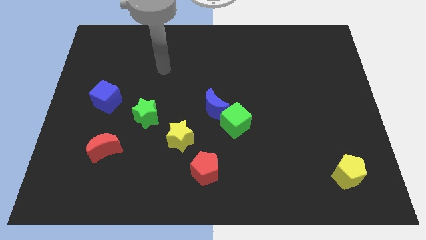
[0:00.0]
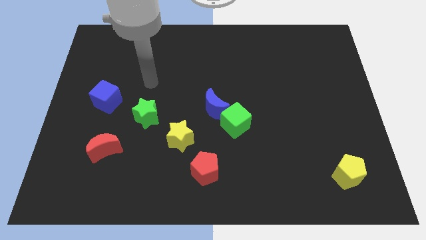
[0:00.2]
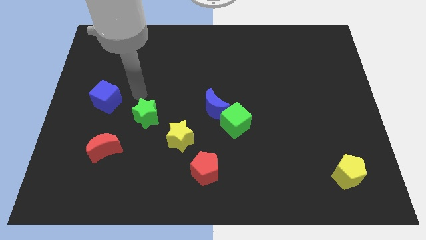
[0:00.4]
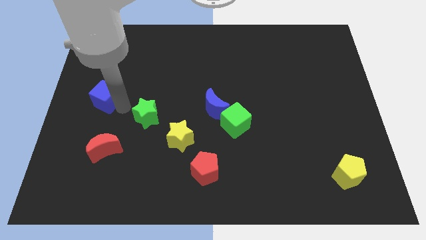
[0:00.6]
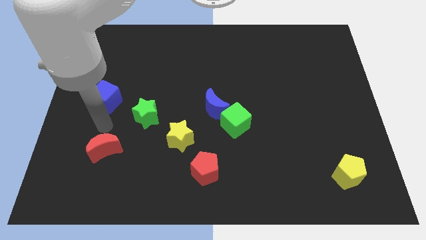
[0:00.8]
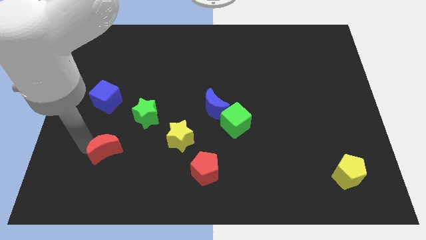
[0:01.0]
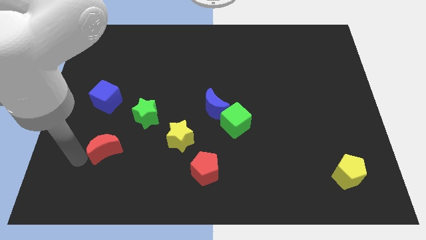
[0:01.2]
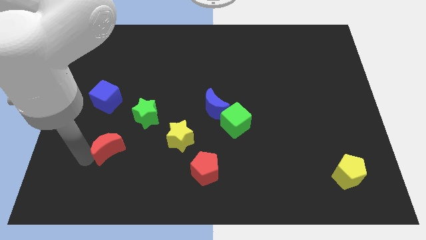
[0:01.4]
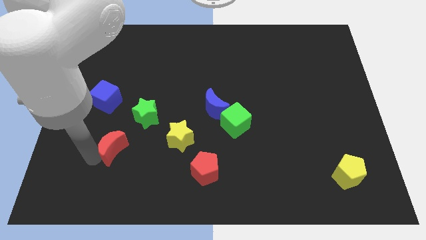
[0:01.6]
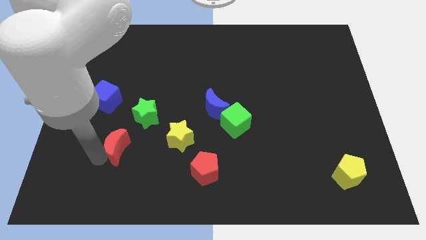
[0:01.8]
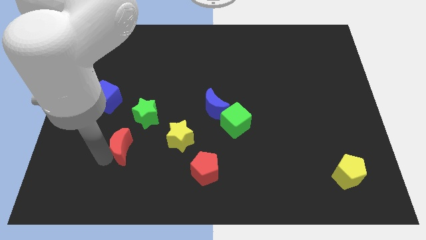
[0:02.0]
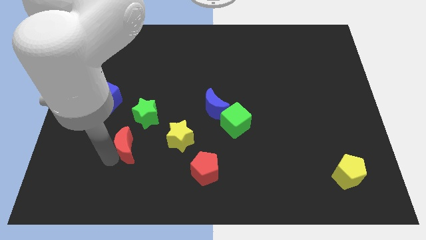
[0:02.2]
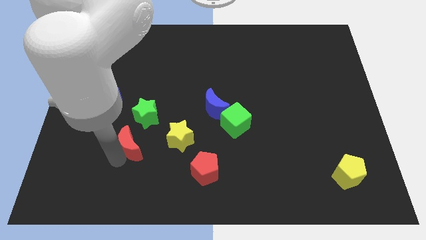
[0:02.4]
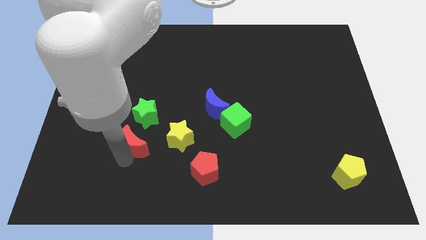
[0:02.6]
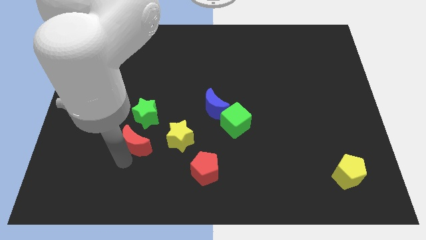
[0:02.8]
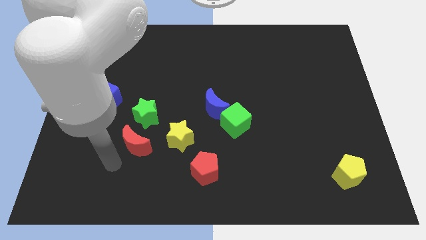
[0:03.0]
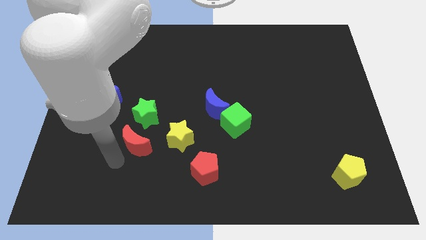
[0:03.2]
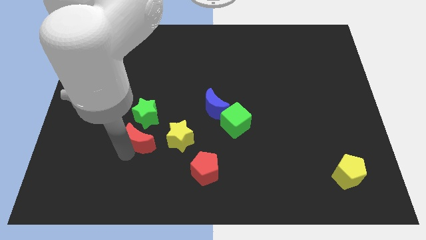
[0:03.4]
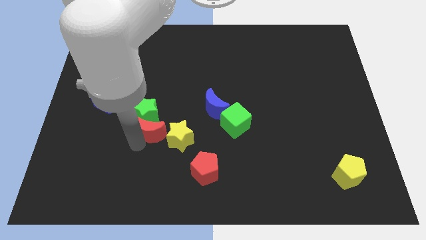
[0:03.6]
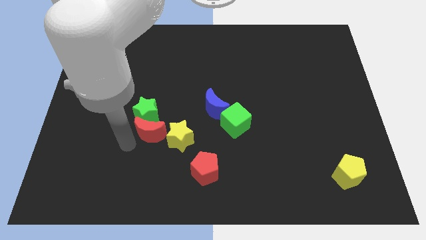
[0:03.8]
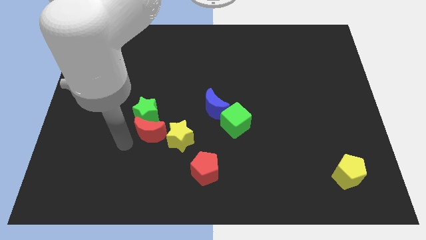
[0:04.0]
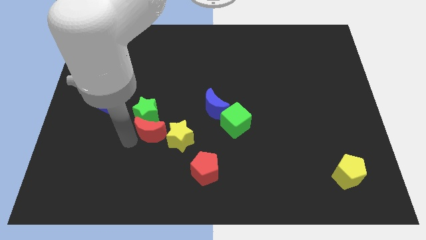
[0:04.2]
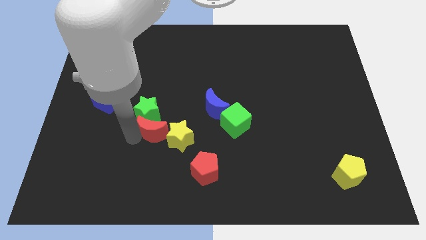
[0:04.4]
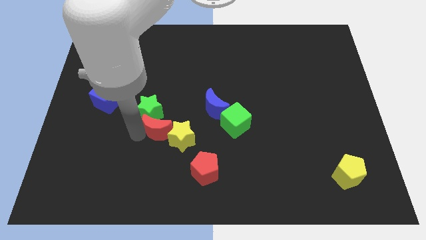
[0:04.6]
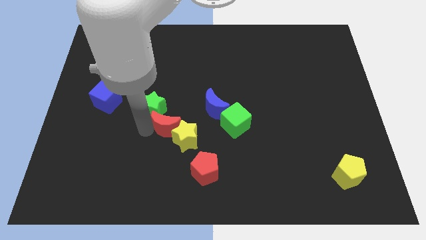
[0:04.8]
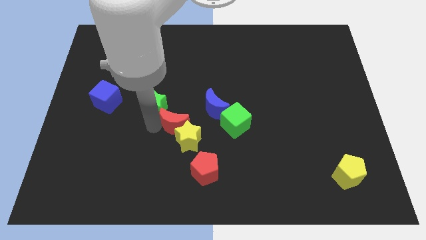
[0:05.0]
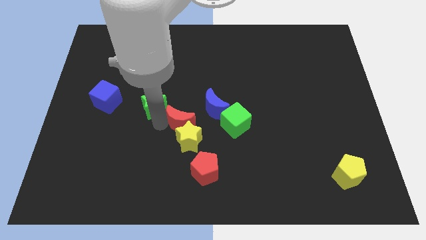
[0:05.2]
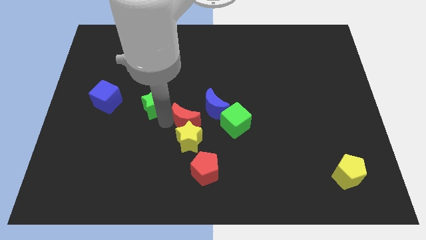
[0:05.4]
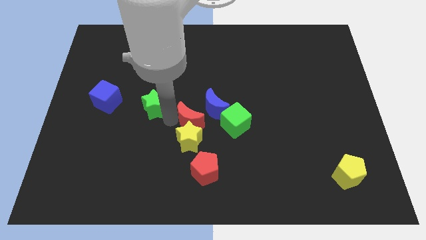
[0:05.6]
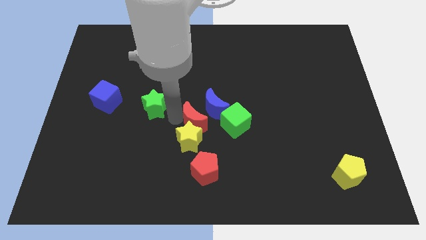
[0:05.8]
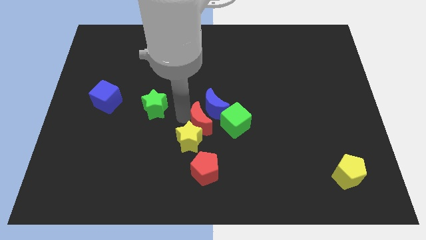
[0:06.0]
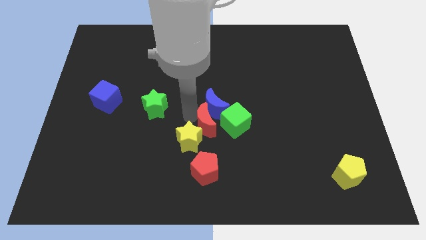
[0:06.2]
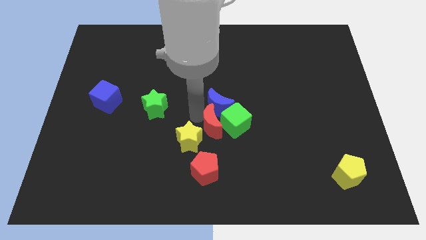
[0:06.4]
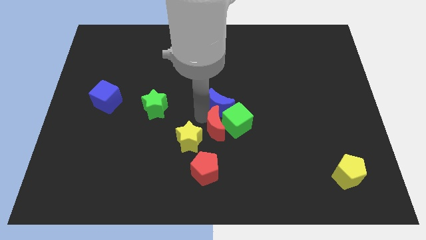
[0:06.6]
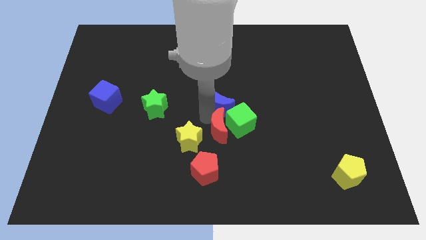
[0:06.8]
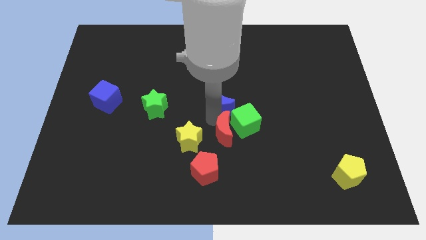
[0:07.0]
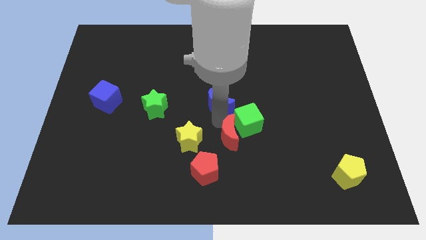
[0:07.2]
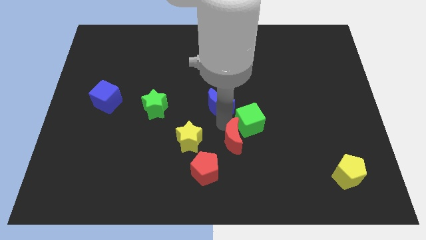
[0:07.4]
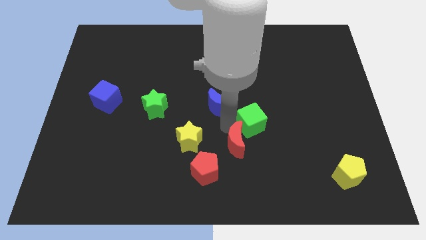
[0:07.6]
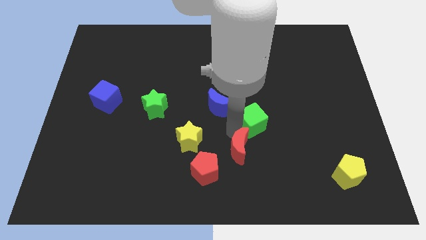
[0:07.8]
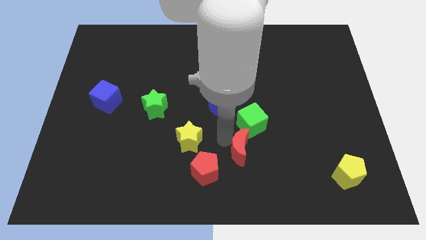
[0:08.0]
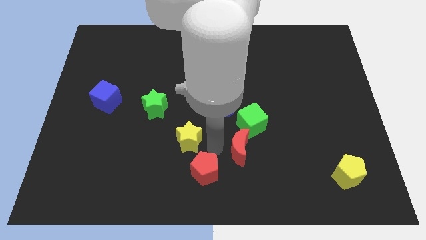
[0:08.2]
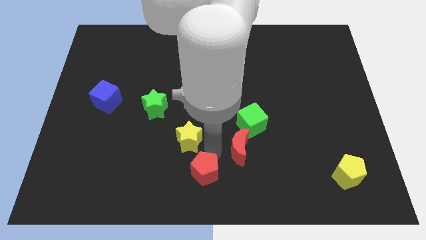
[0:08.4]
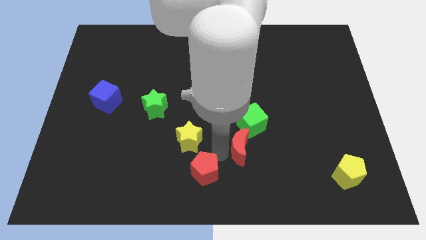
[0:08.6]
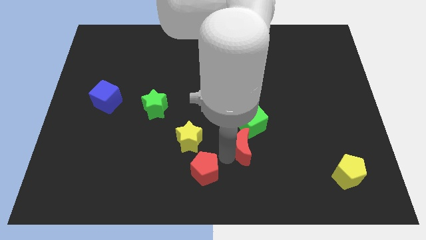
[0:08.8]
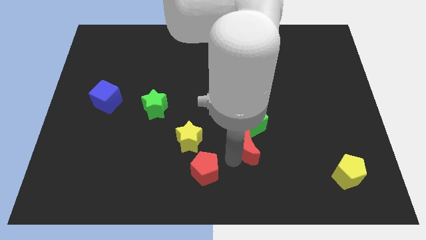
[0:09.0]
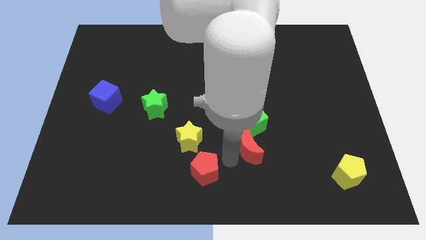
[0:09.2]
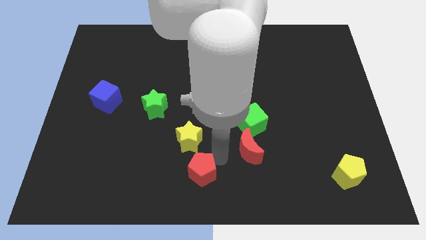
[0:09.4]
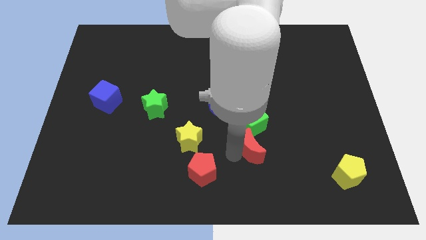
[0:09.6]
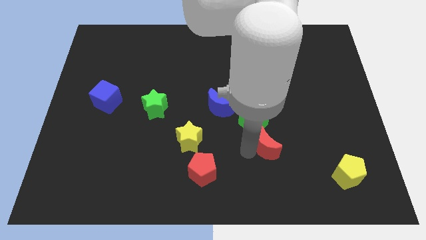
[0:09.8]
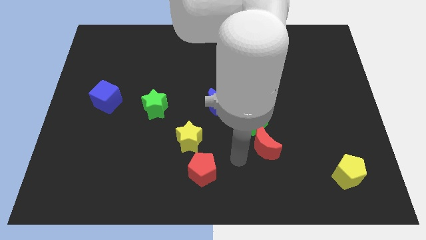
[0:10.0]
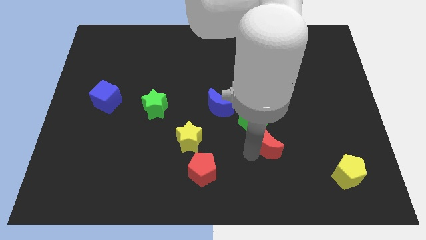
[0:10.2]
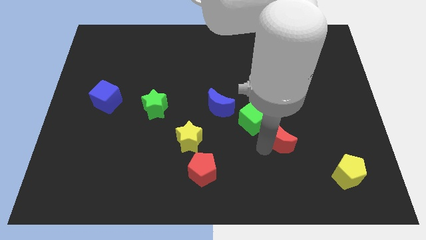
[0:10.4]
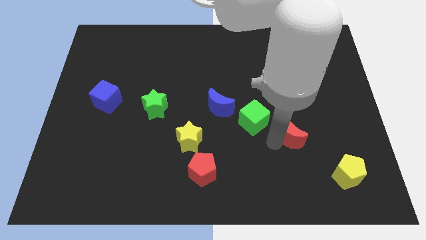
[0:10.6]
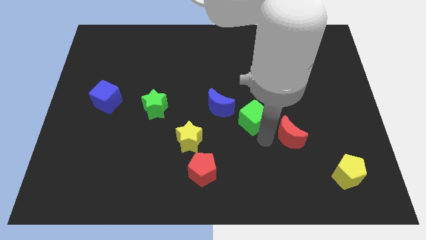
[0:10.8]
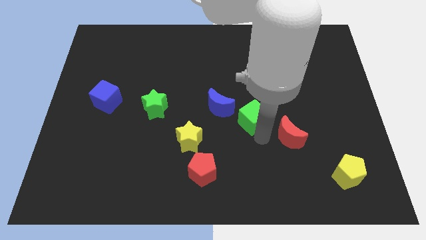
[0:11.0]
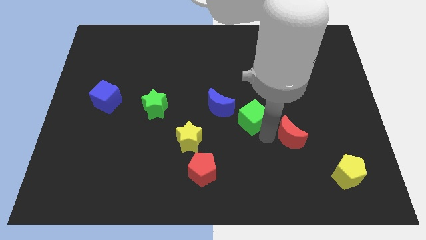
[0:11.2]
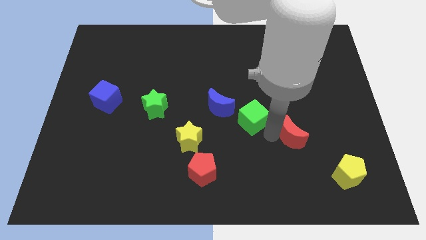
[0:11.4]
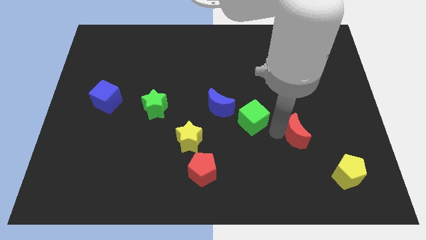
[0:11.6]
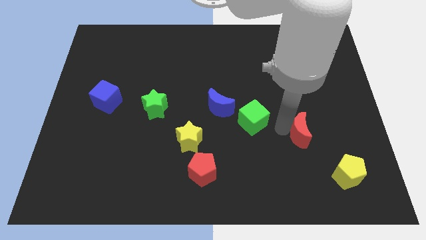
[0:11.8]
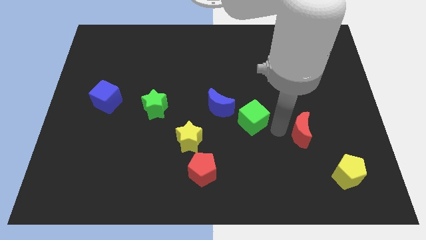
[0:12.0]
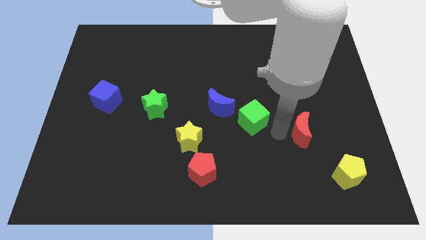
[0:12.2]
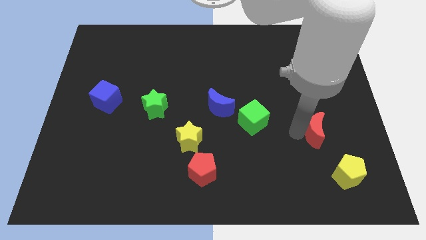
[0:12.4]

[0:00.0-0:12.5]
move the red moon to the top of the yellow pentagon
